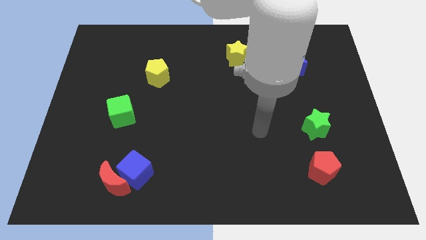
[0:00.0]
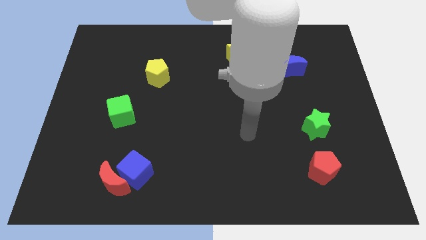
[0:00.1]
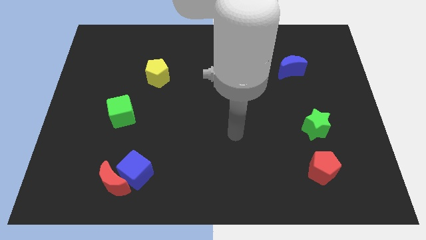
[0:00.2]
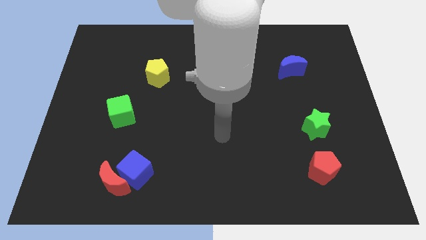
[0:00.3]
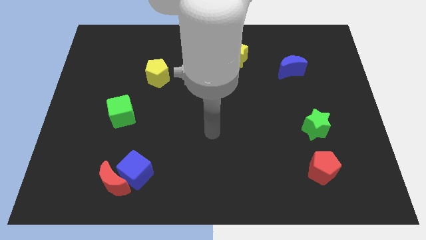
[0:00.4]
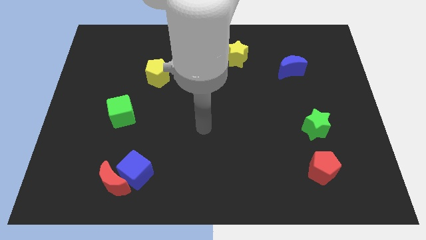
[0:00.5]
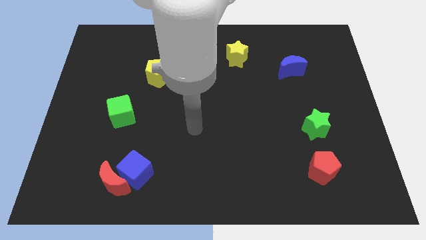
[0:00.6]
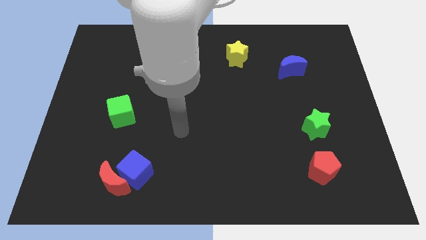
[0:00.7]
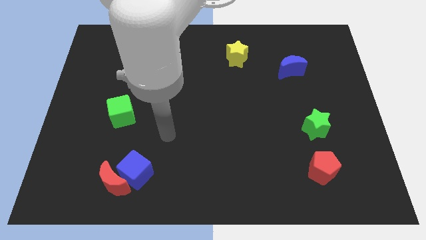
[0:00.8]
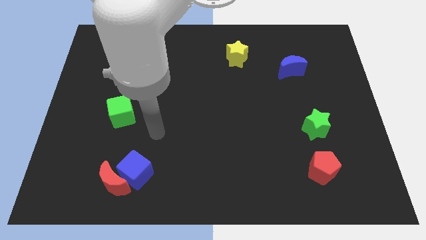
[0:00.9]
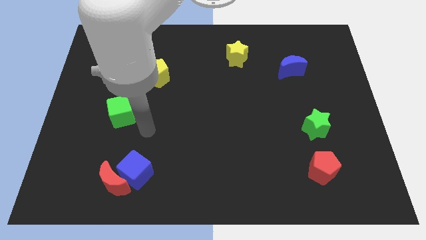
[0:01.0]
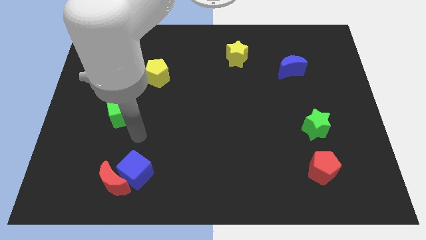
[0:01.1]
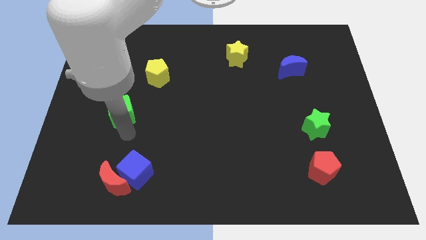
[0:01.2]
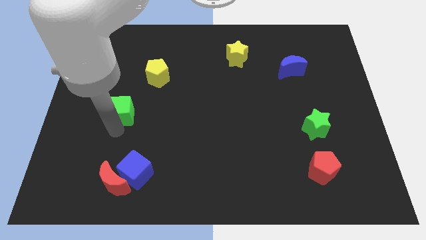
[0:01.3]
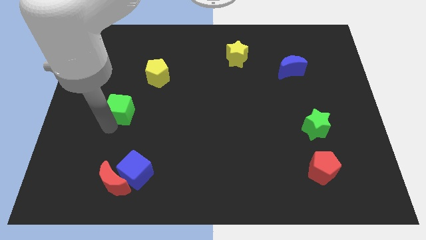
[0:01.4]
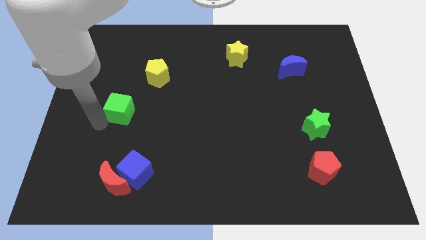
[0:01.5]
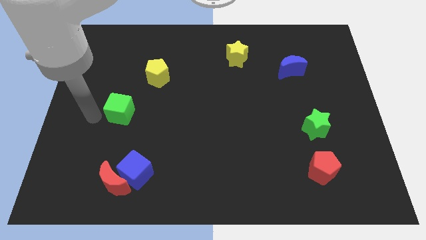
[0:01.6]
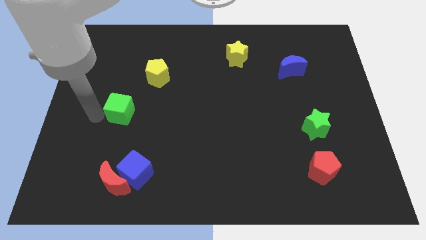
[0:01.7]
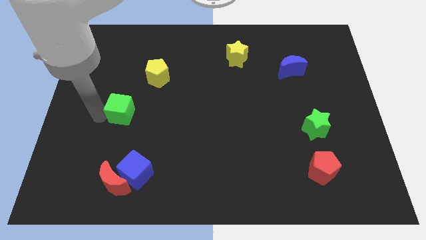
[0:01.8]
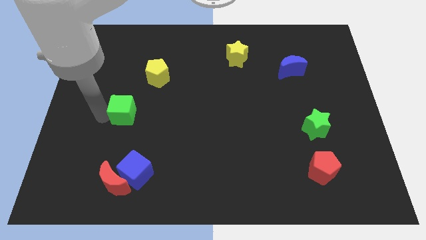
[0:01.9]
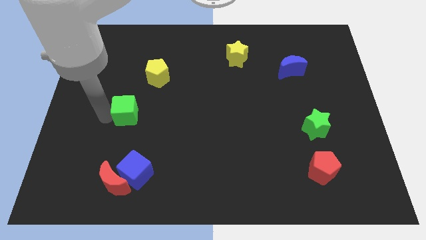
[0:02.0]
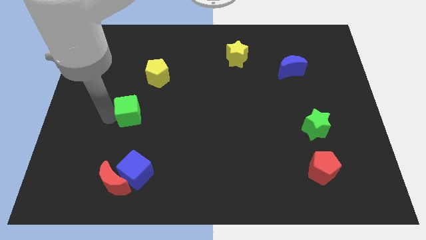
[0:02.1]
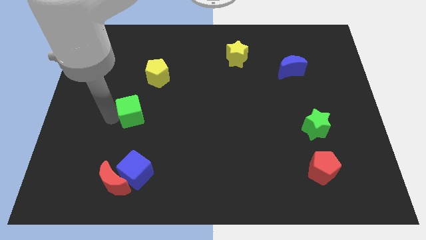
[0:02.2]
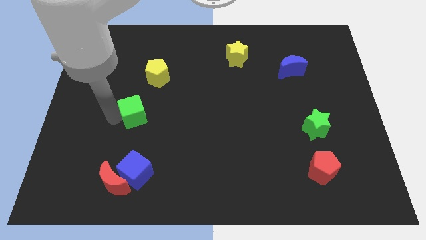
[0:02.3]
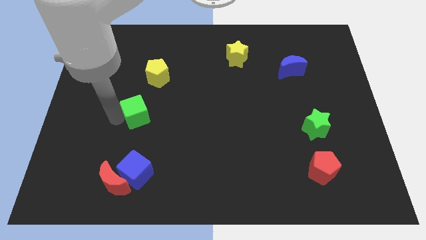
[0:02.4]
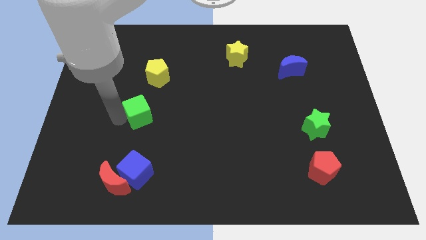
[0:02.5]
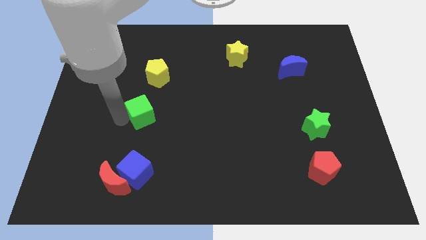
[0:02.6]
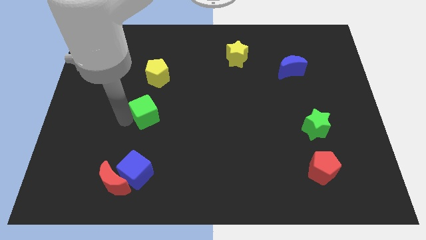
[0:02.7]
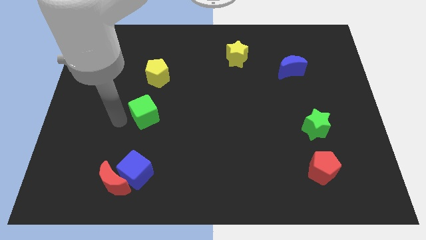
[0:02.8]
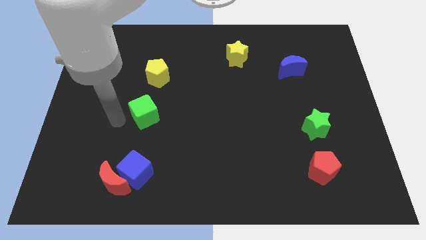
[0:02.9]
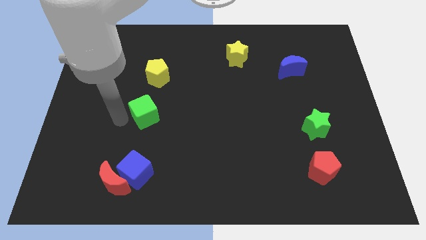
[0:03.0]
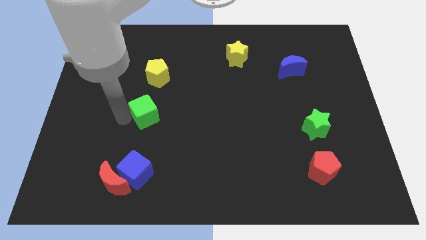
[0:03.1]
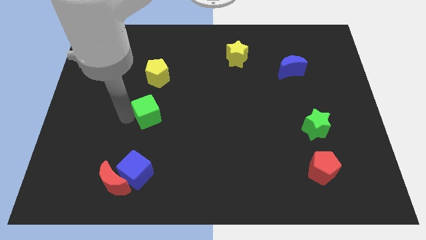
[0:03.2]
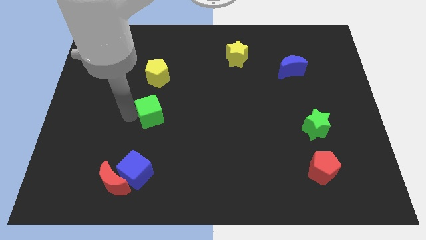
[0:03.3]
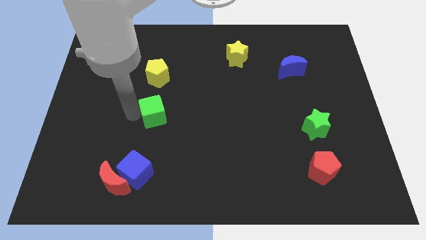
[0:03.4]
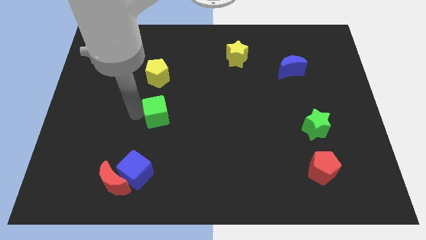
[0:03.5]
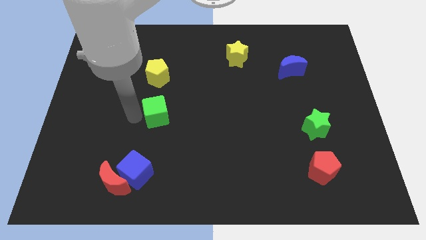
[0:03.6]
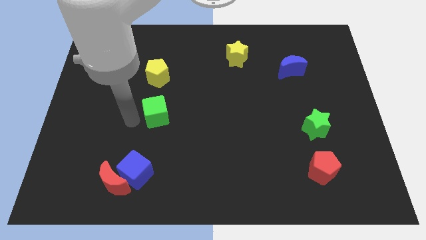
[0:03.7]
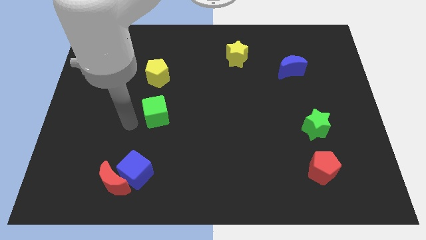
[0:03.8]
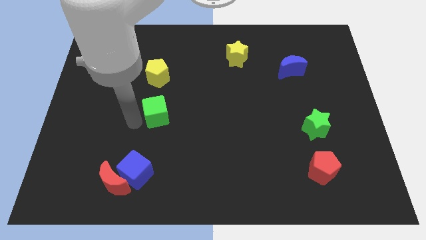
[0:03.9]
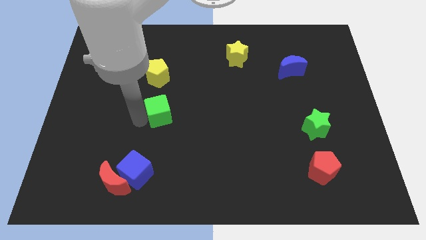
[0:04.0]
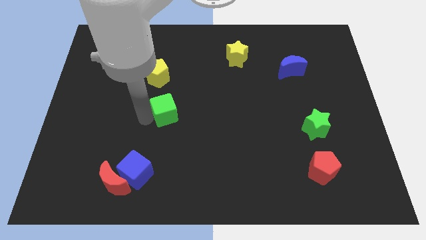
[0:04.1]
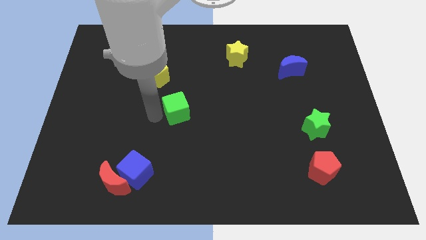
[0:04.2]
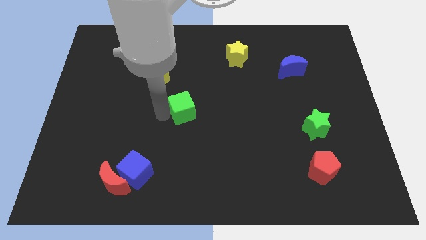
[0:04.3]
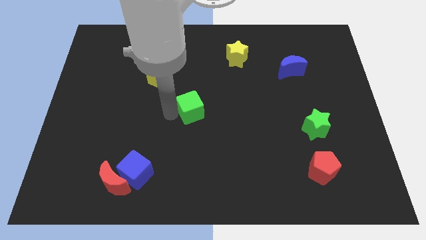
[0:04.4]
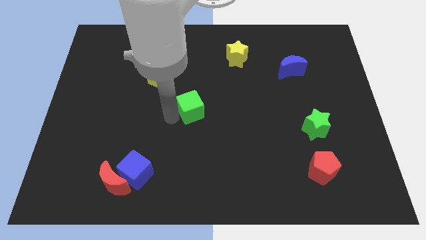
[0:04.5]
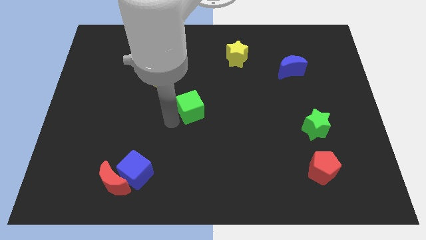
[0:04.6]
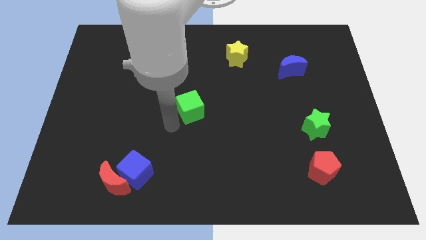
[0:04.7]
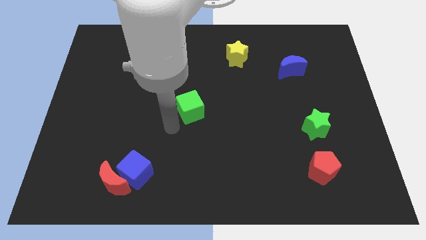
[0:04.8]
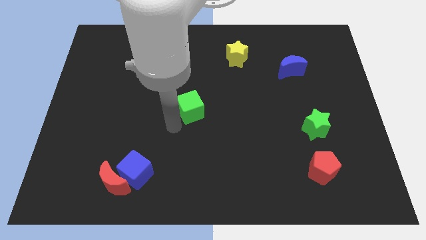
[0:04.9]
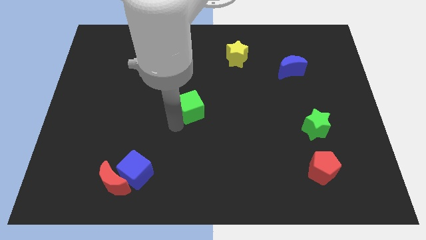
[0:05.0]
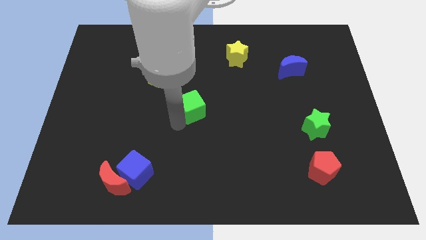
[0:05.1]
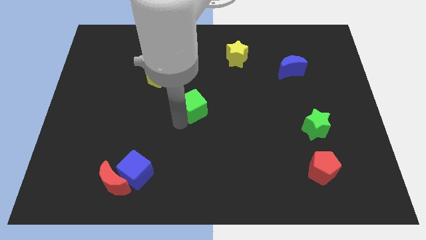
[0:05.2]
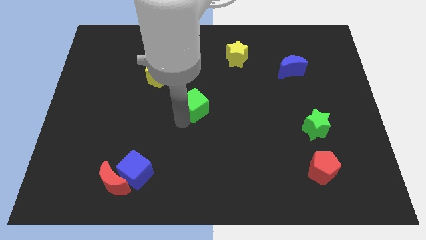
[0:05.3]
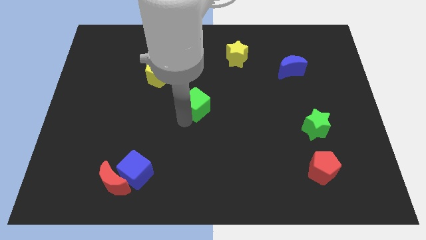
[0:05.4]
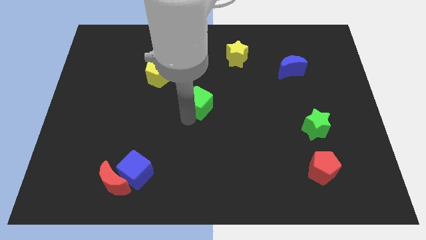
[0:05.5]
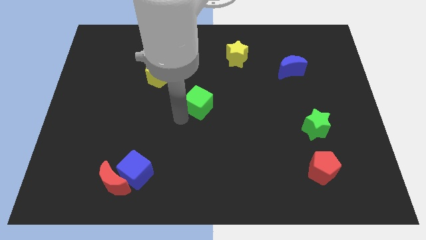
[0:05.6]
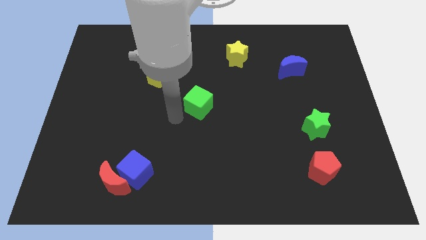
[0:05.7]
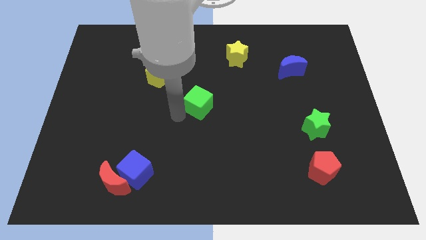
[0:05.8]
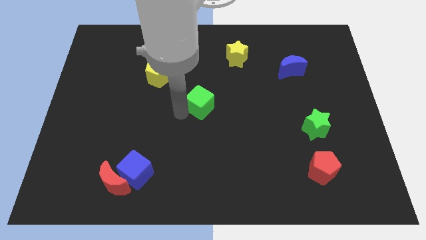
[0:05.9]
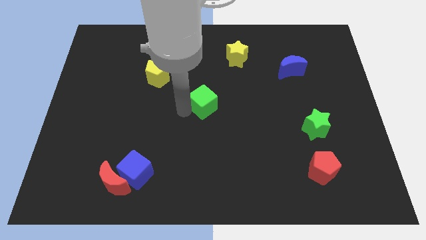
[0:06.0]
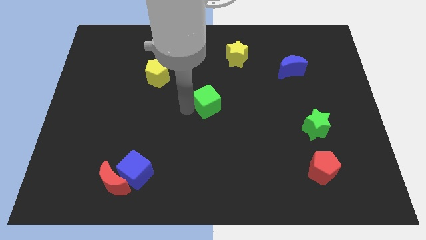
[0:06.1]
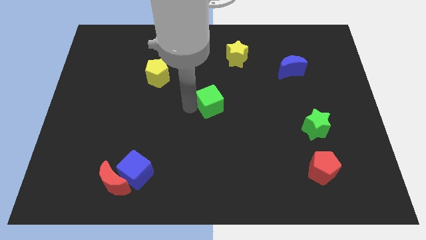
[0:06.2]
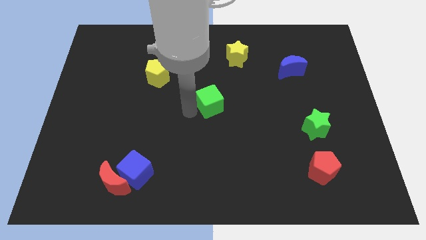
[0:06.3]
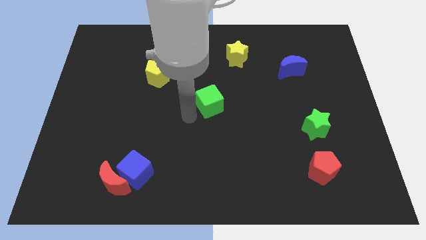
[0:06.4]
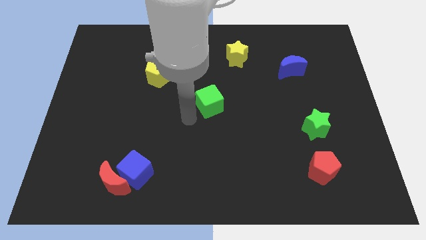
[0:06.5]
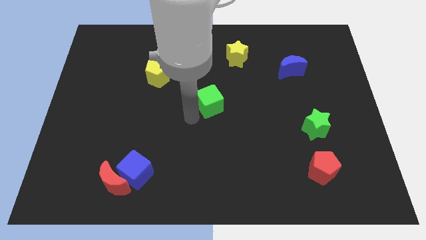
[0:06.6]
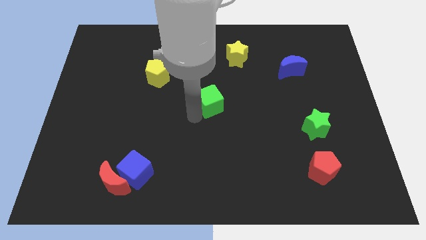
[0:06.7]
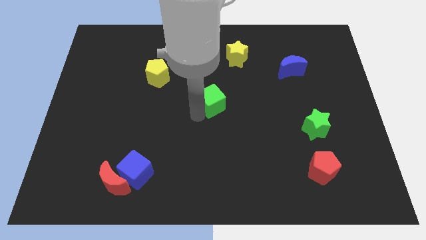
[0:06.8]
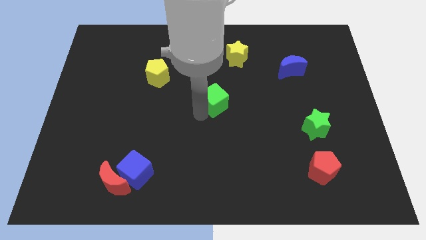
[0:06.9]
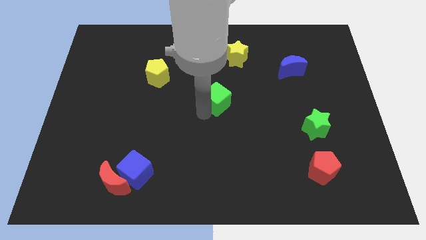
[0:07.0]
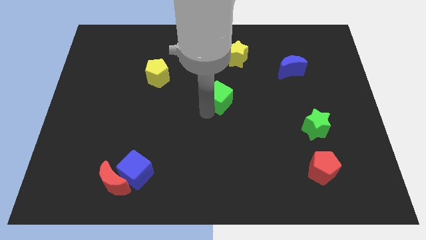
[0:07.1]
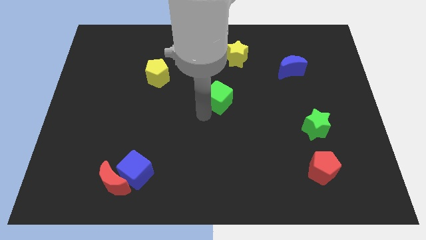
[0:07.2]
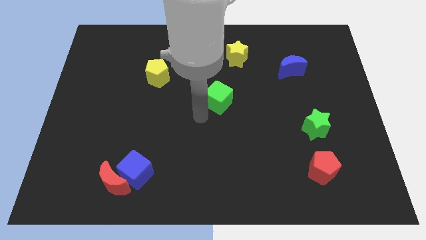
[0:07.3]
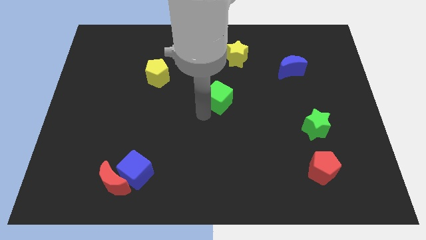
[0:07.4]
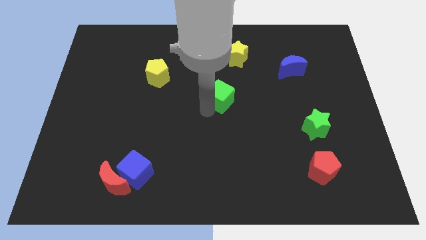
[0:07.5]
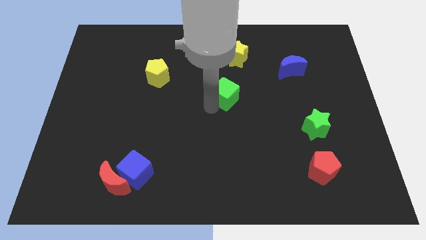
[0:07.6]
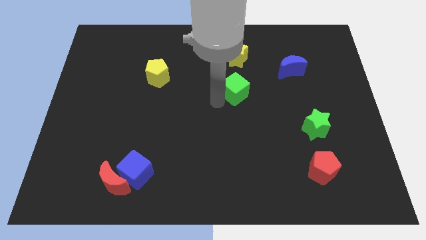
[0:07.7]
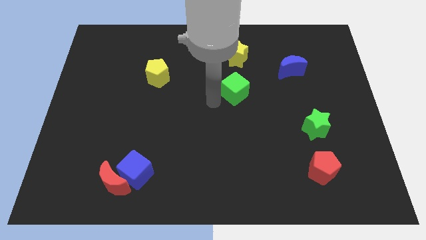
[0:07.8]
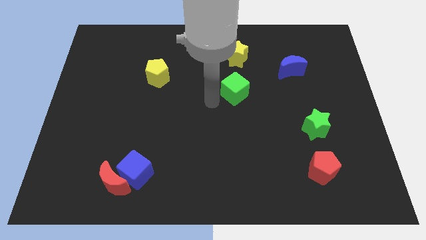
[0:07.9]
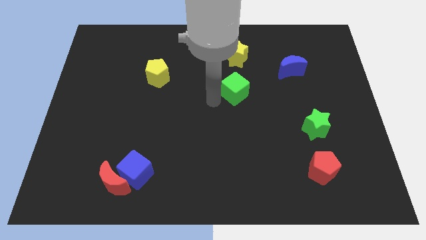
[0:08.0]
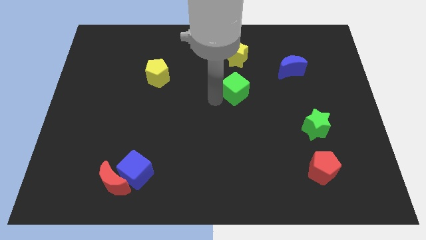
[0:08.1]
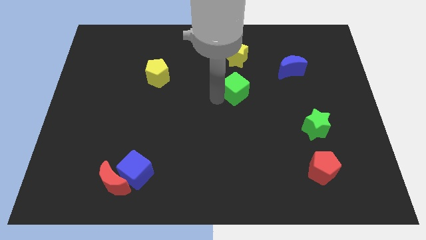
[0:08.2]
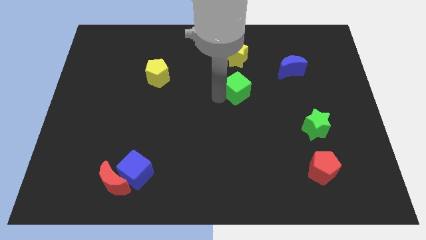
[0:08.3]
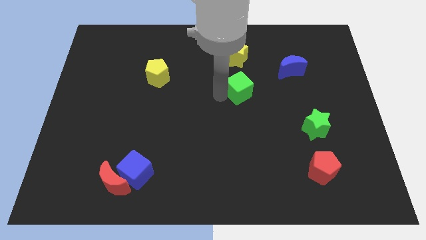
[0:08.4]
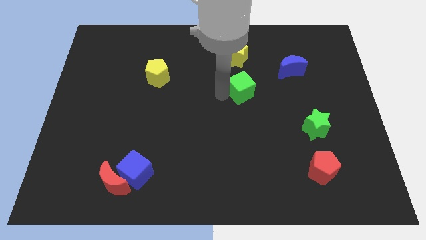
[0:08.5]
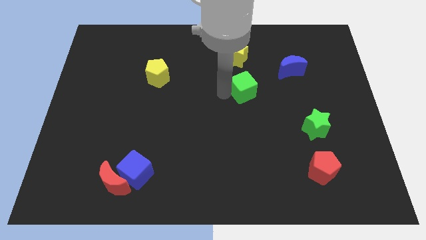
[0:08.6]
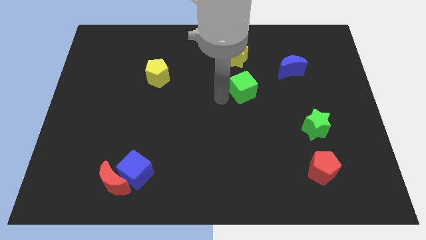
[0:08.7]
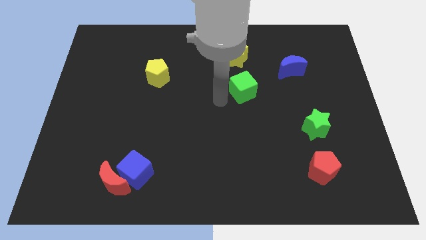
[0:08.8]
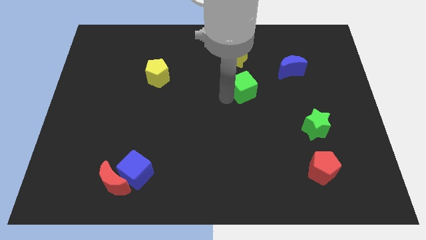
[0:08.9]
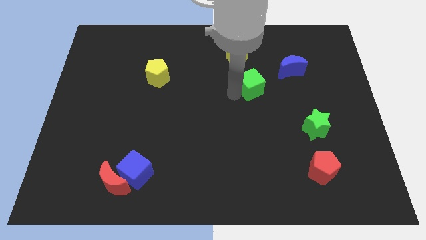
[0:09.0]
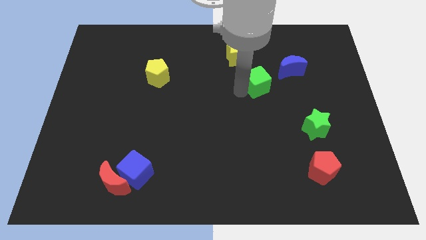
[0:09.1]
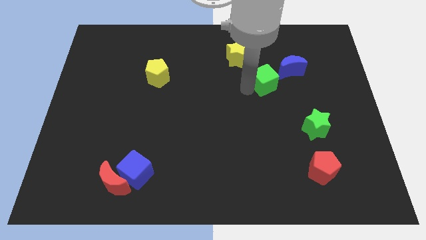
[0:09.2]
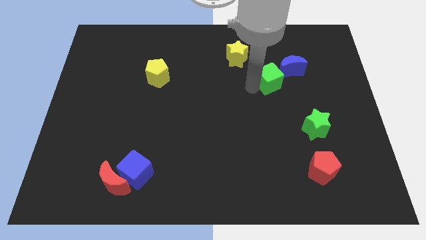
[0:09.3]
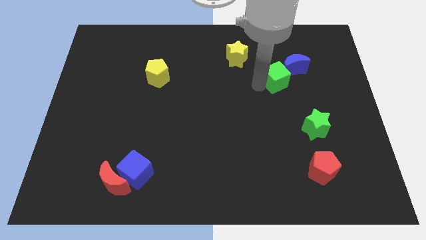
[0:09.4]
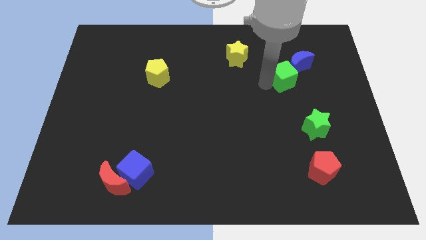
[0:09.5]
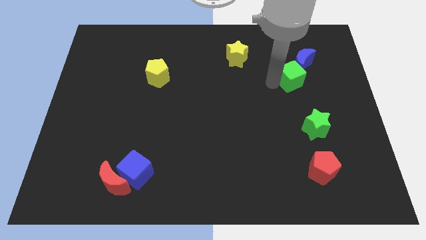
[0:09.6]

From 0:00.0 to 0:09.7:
move the green cube towards the blue moon
